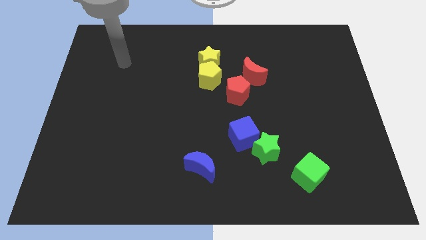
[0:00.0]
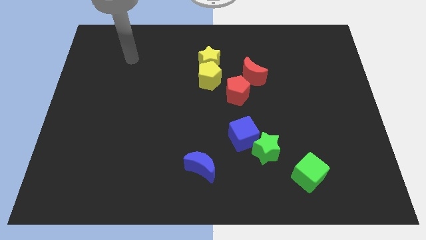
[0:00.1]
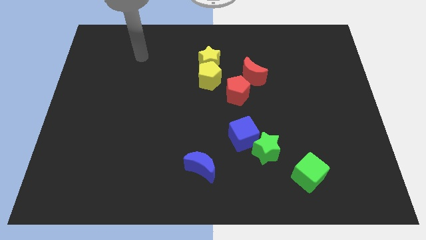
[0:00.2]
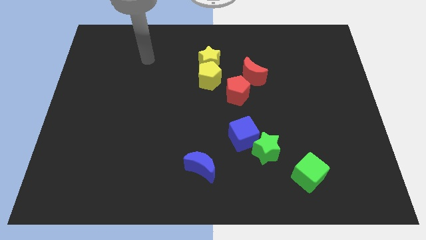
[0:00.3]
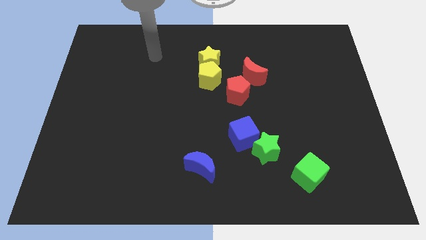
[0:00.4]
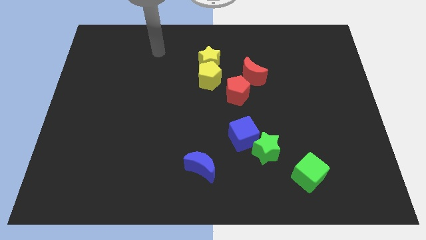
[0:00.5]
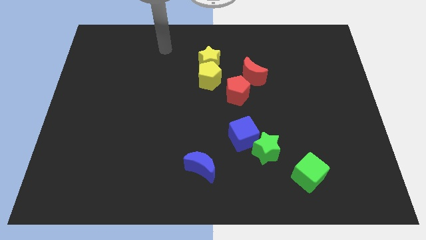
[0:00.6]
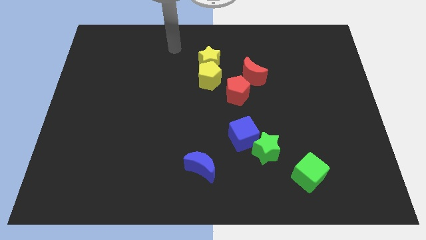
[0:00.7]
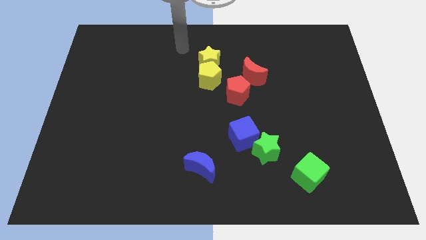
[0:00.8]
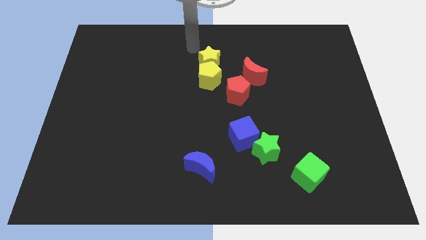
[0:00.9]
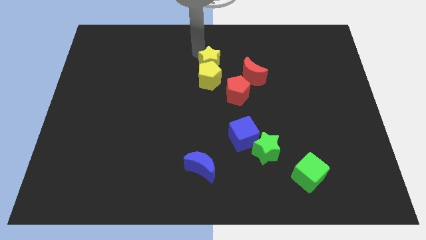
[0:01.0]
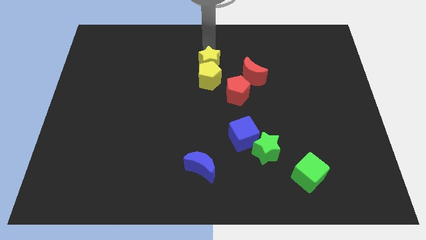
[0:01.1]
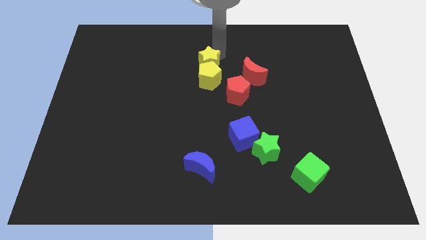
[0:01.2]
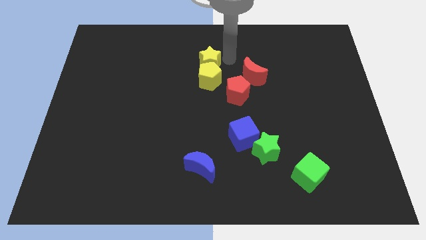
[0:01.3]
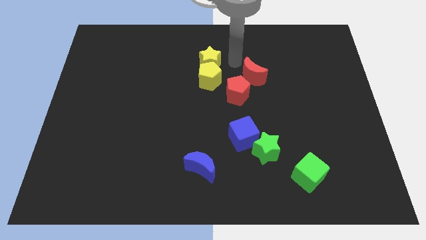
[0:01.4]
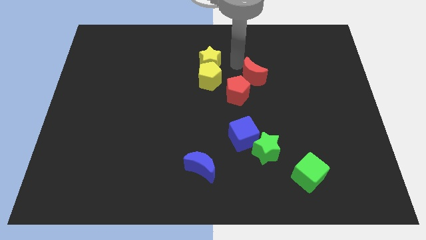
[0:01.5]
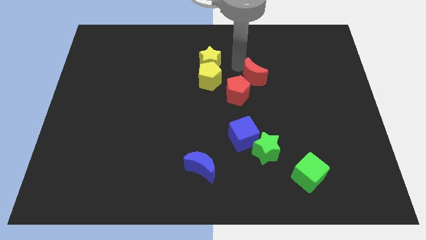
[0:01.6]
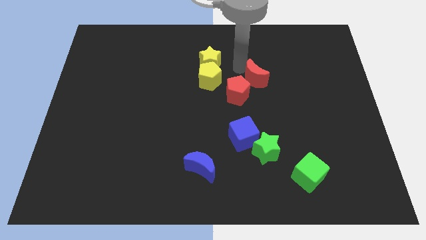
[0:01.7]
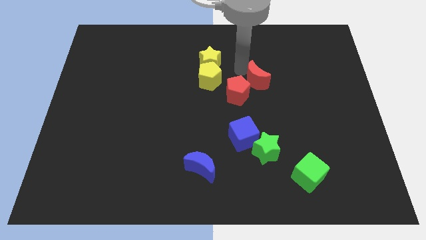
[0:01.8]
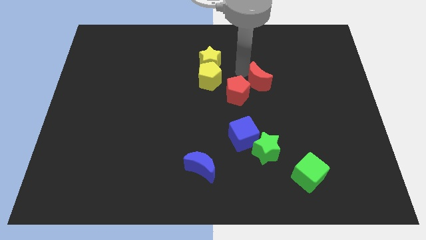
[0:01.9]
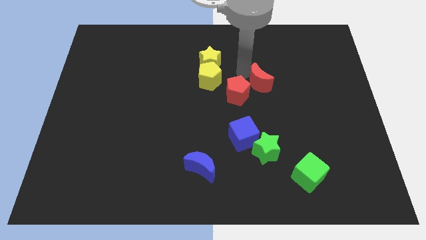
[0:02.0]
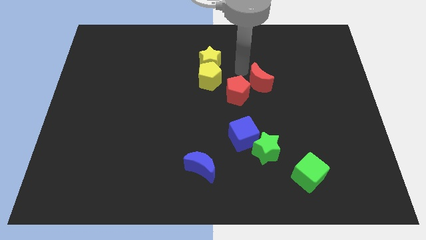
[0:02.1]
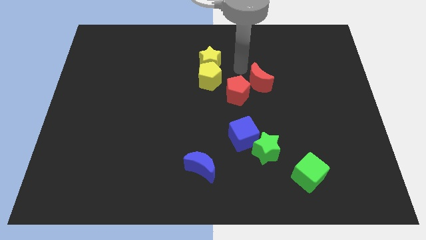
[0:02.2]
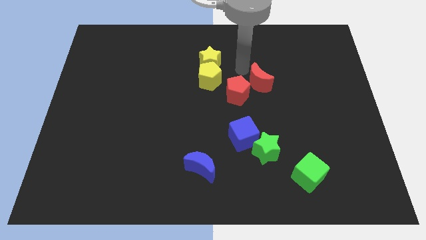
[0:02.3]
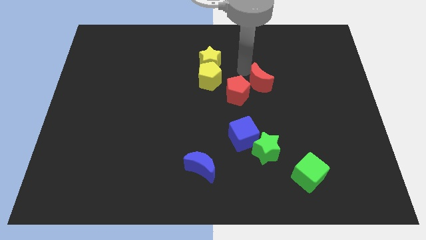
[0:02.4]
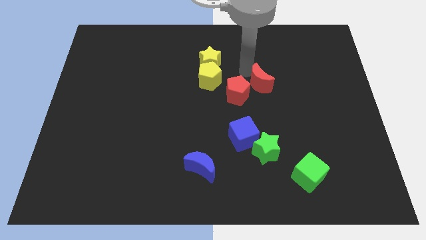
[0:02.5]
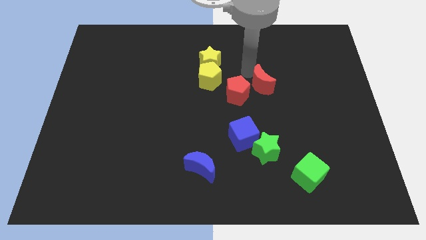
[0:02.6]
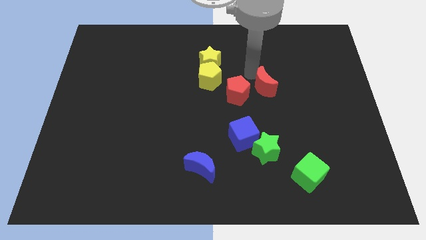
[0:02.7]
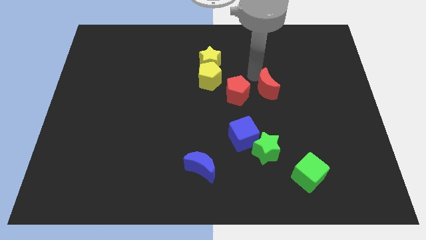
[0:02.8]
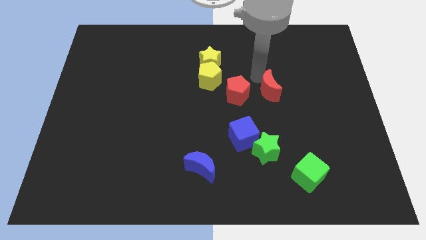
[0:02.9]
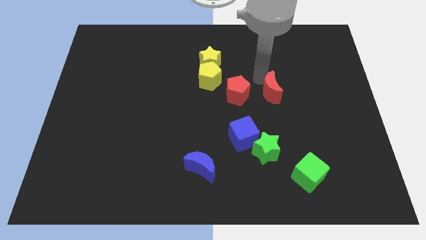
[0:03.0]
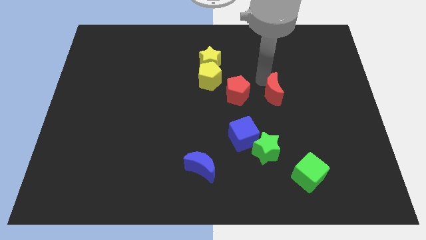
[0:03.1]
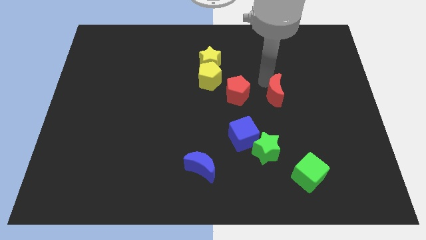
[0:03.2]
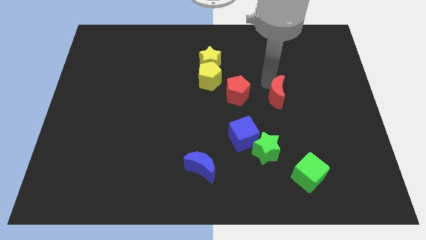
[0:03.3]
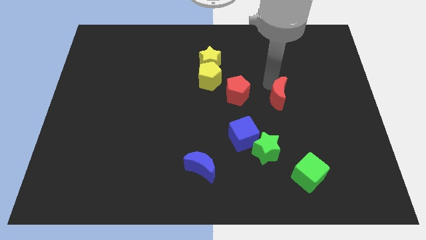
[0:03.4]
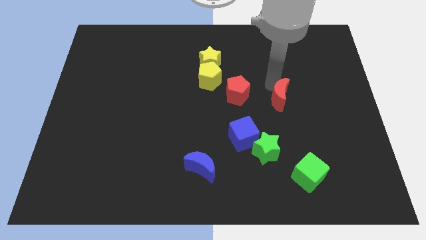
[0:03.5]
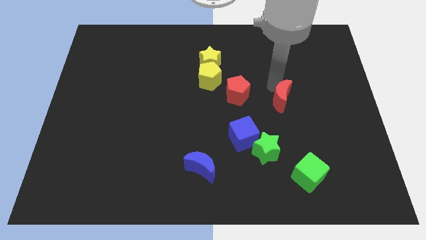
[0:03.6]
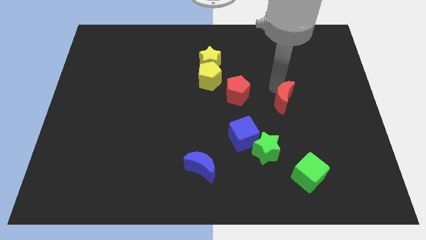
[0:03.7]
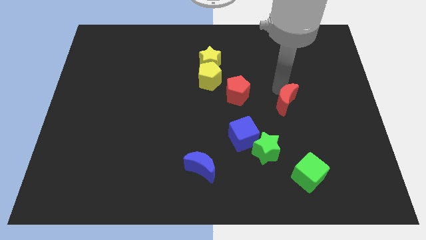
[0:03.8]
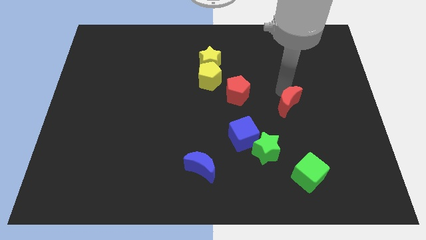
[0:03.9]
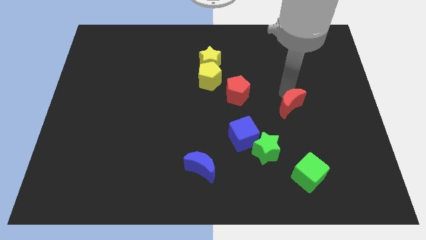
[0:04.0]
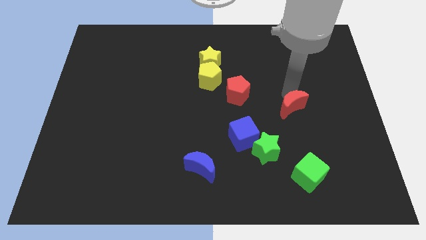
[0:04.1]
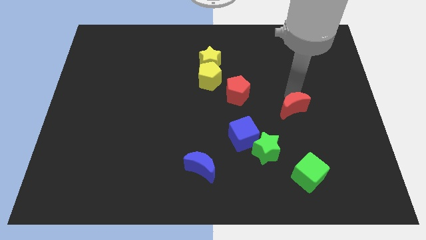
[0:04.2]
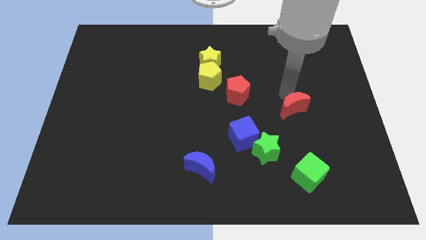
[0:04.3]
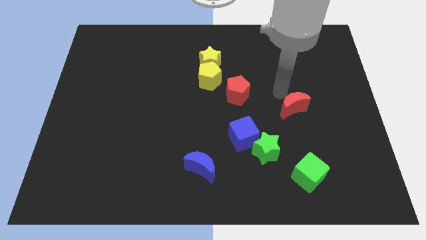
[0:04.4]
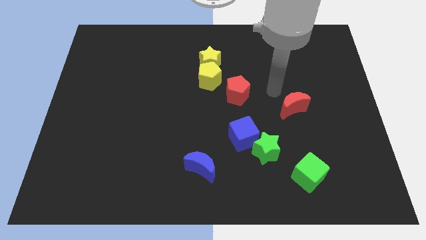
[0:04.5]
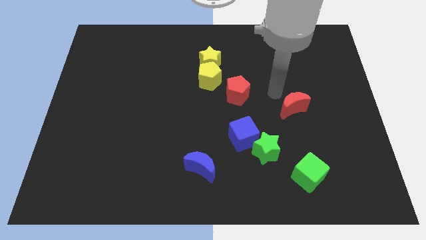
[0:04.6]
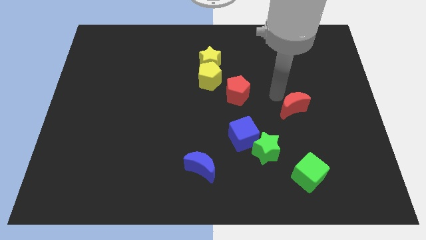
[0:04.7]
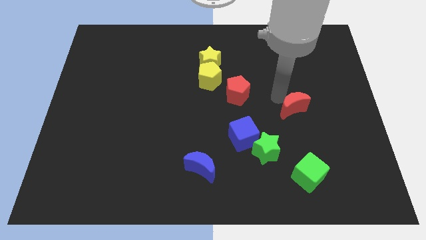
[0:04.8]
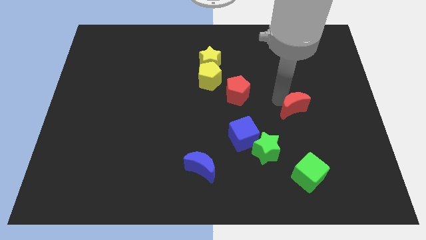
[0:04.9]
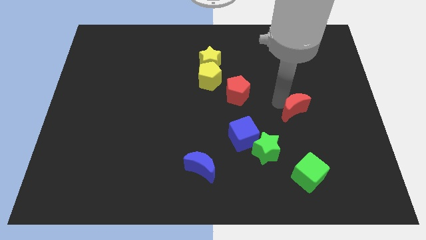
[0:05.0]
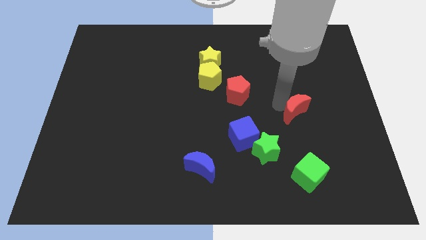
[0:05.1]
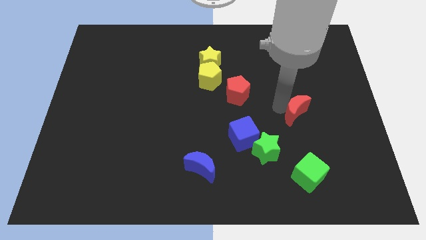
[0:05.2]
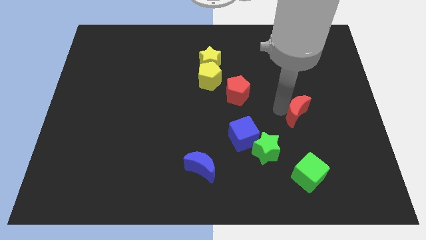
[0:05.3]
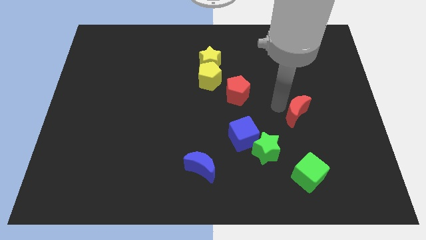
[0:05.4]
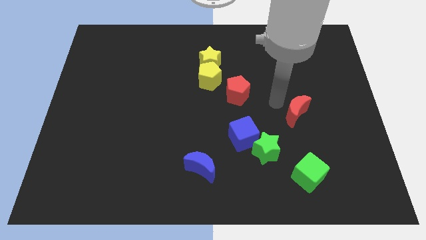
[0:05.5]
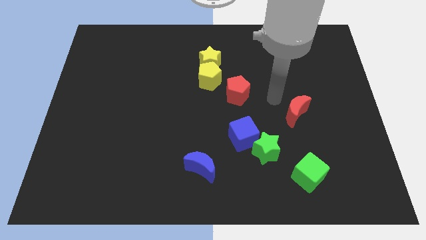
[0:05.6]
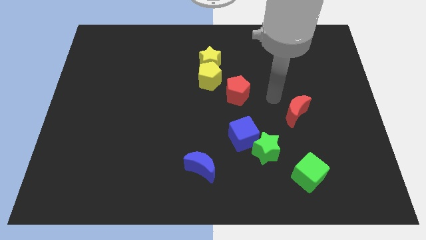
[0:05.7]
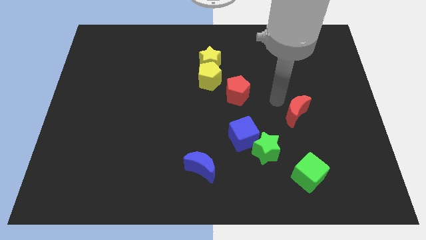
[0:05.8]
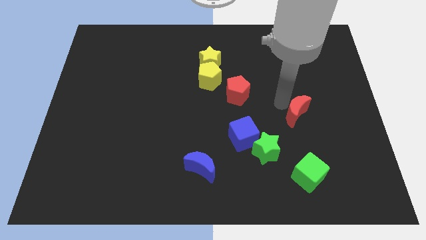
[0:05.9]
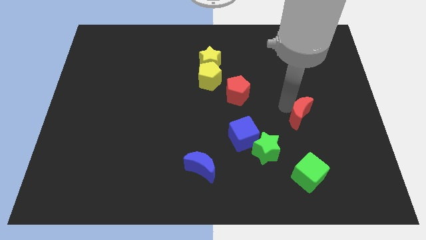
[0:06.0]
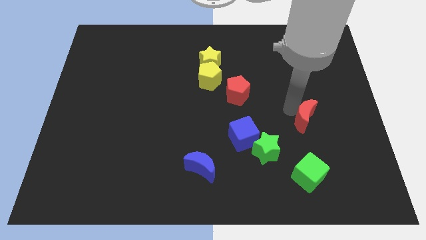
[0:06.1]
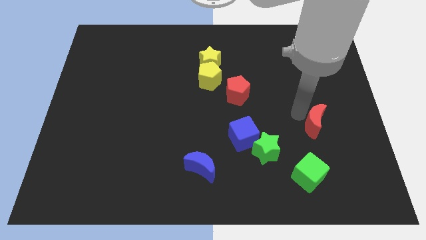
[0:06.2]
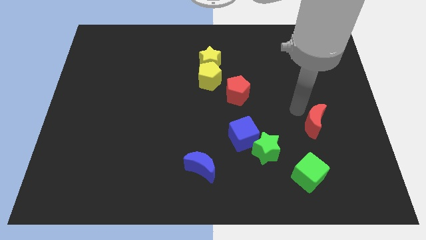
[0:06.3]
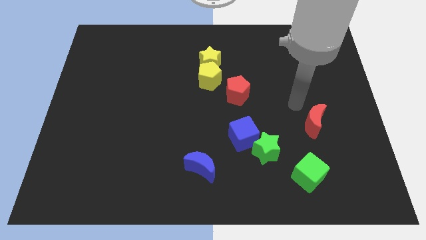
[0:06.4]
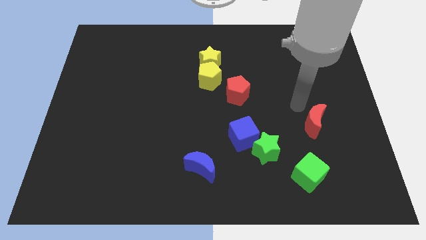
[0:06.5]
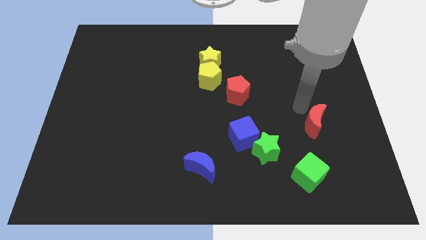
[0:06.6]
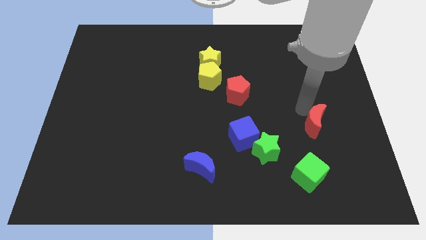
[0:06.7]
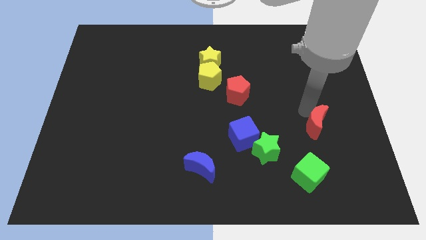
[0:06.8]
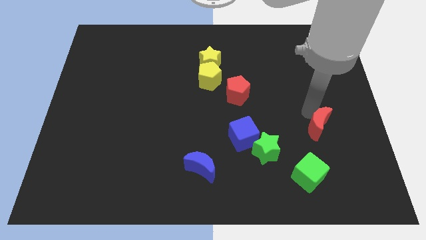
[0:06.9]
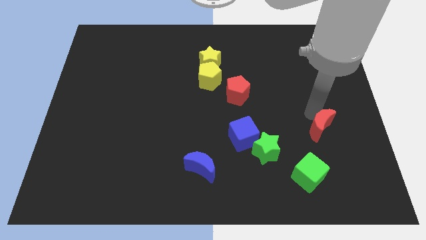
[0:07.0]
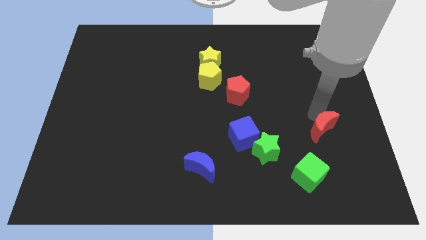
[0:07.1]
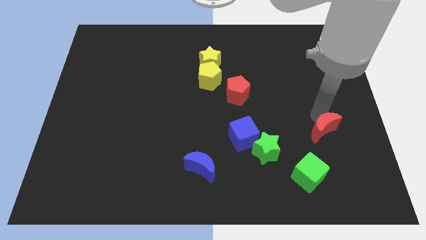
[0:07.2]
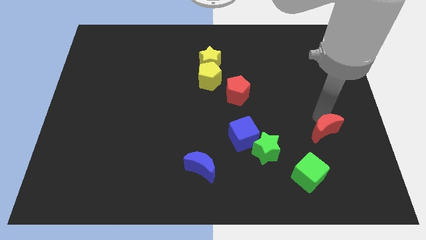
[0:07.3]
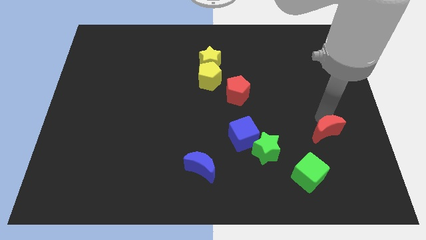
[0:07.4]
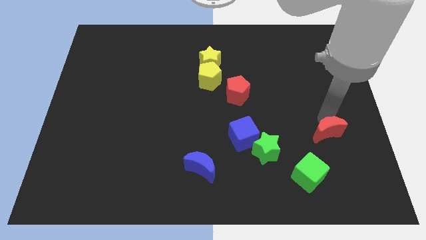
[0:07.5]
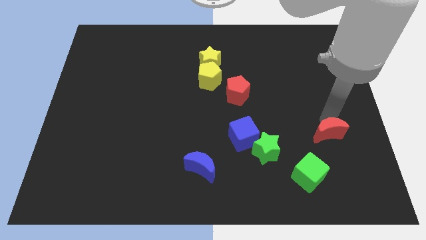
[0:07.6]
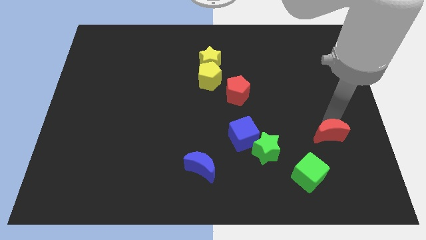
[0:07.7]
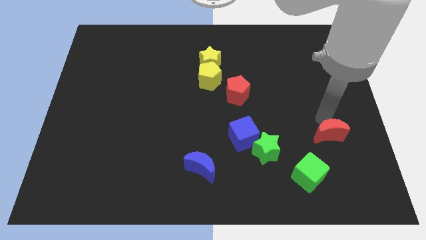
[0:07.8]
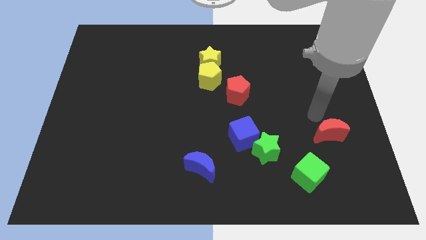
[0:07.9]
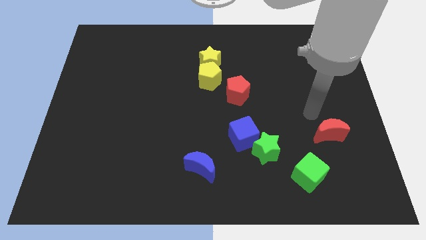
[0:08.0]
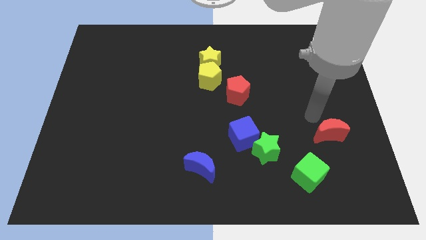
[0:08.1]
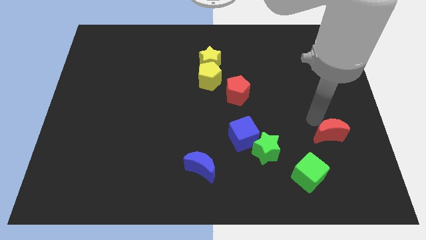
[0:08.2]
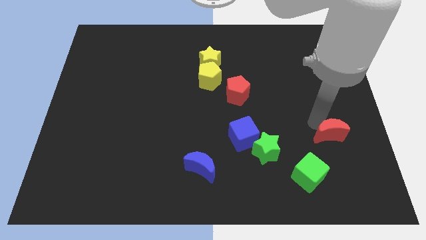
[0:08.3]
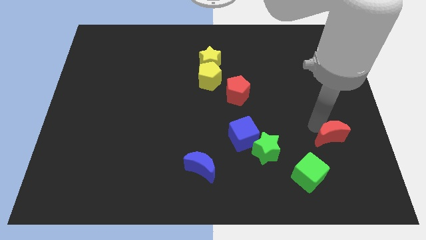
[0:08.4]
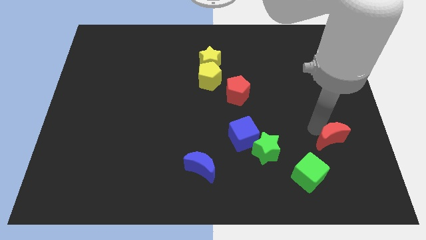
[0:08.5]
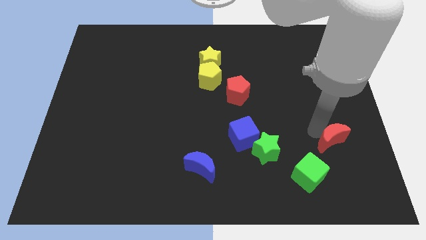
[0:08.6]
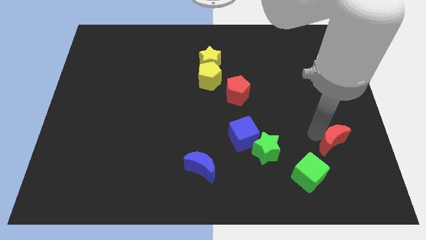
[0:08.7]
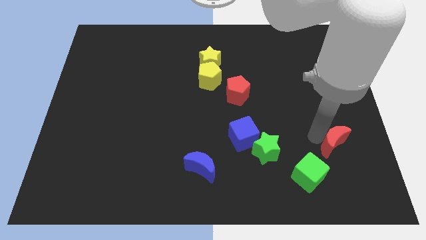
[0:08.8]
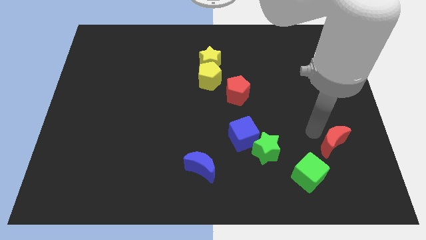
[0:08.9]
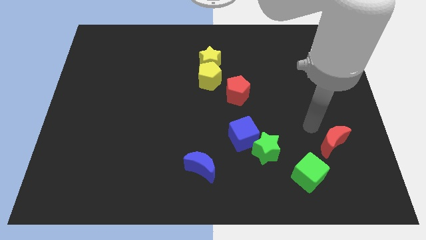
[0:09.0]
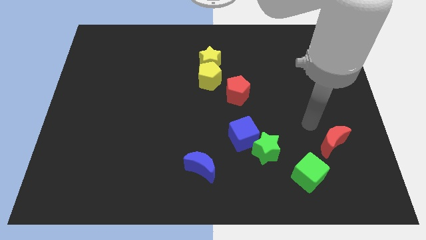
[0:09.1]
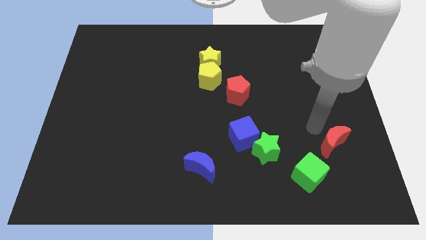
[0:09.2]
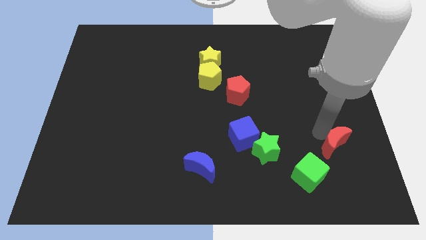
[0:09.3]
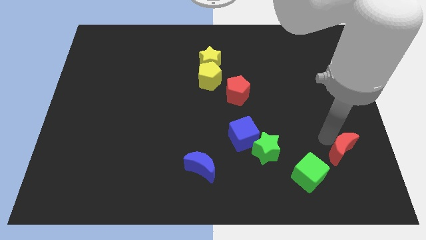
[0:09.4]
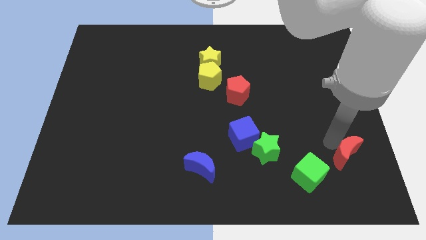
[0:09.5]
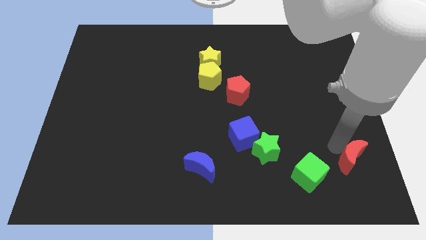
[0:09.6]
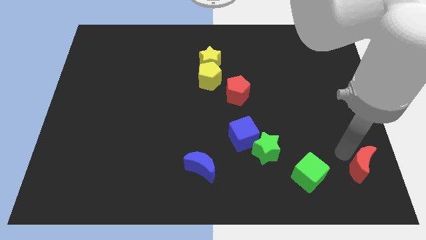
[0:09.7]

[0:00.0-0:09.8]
put the red moon to the bottom right
